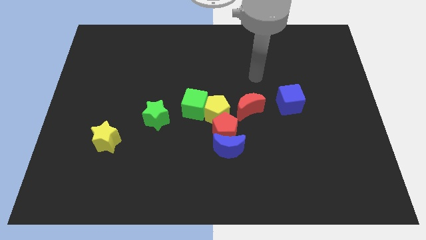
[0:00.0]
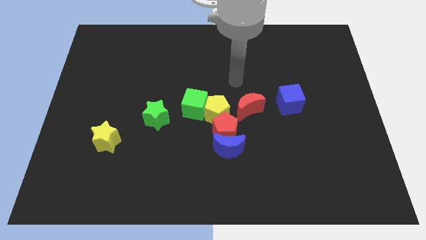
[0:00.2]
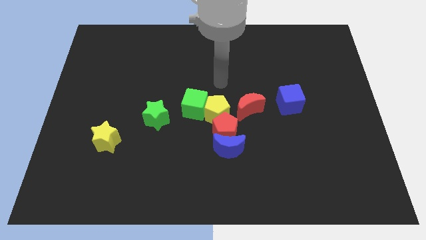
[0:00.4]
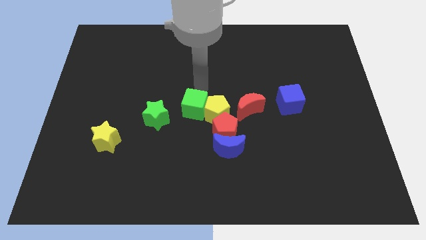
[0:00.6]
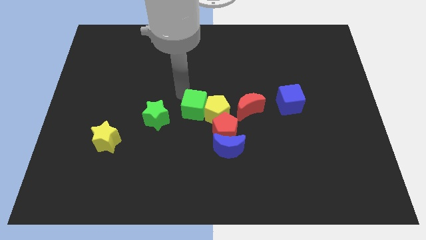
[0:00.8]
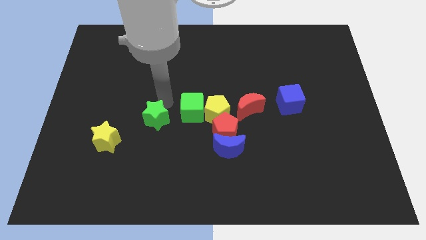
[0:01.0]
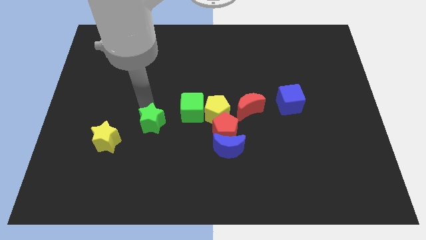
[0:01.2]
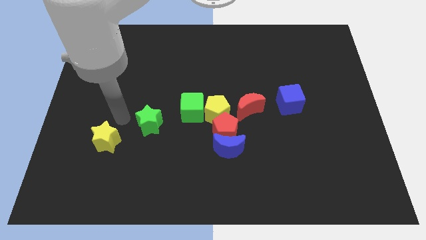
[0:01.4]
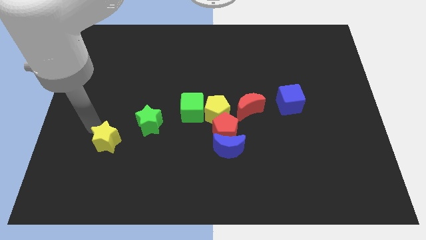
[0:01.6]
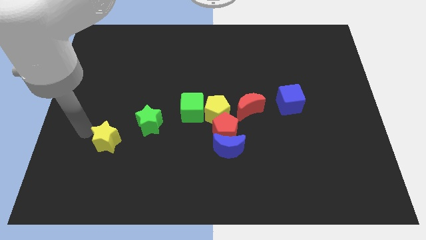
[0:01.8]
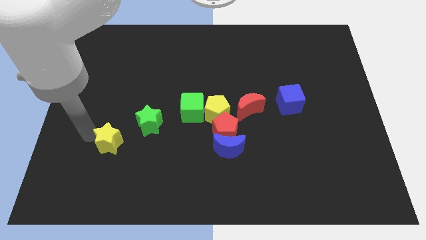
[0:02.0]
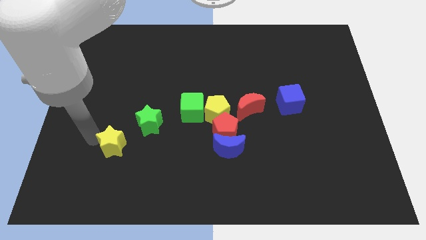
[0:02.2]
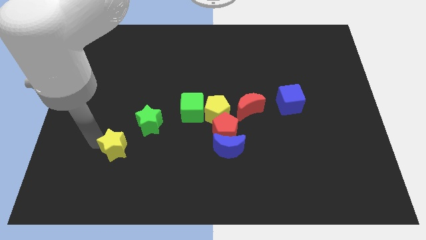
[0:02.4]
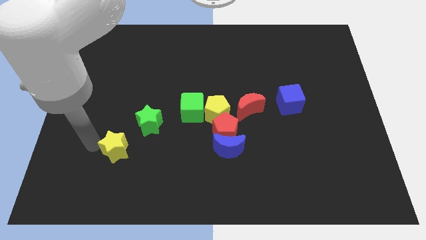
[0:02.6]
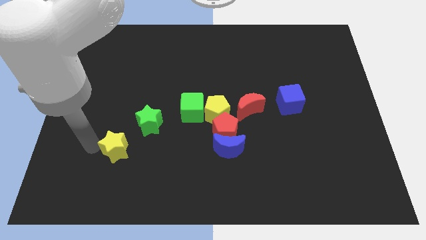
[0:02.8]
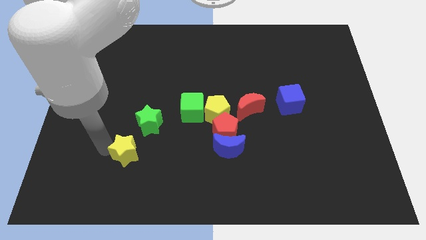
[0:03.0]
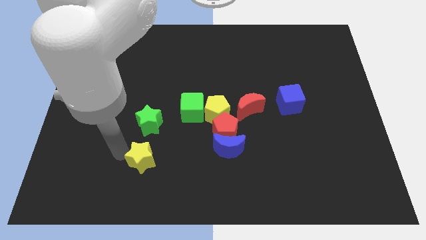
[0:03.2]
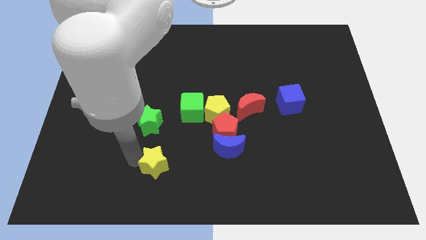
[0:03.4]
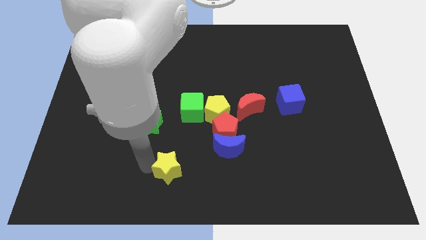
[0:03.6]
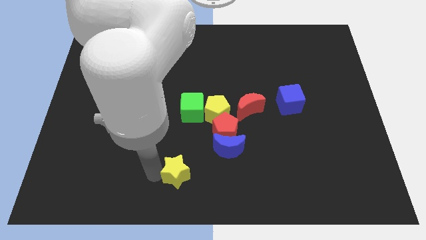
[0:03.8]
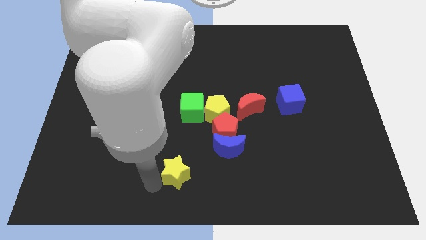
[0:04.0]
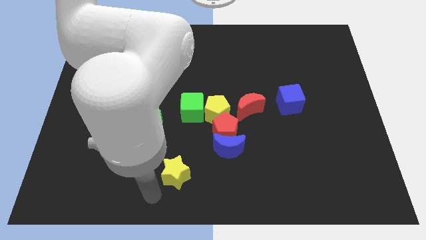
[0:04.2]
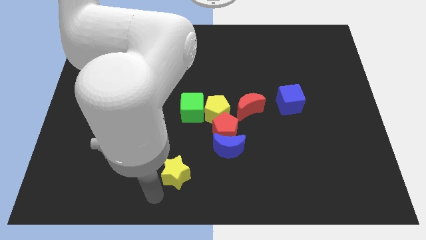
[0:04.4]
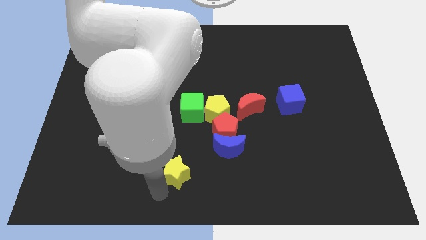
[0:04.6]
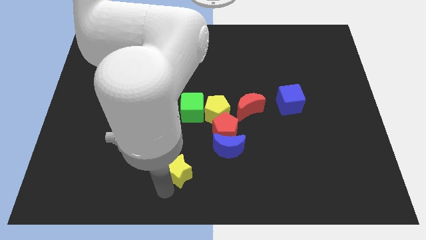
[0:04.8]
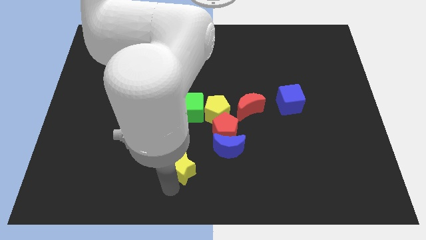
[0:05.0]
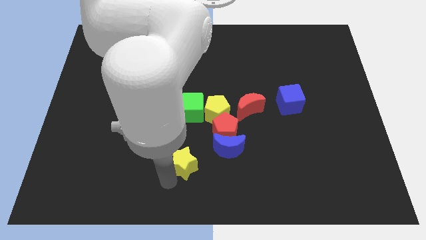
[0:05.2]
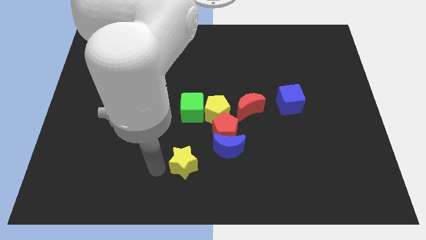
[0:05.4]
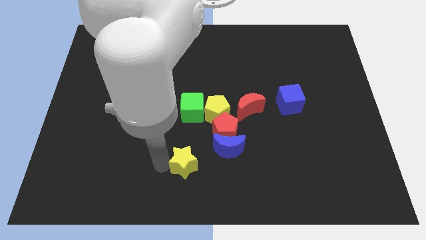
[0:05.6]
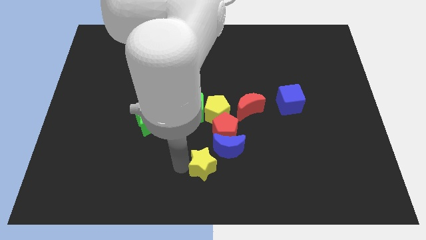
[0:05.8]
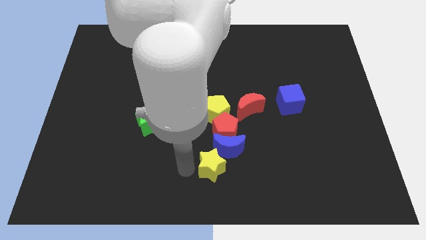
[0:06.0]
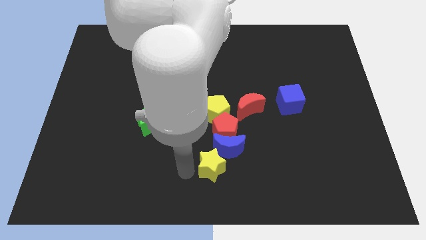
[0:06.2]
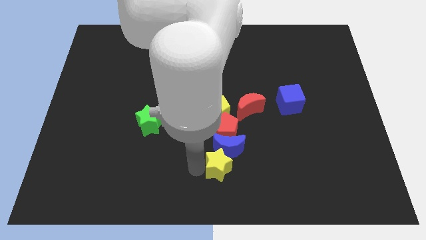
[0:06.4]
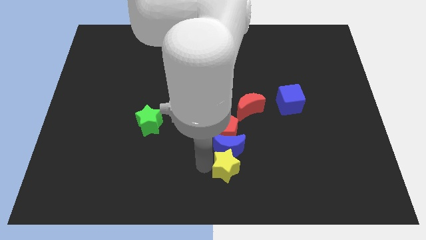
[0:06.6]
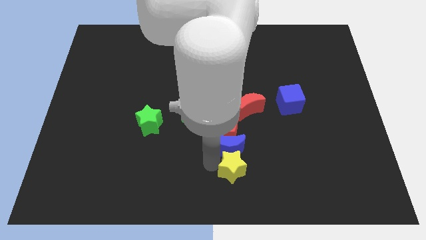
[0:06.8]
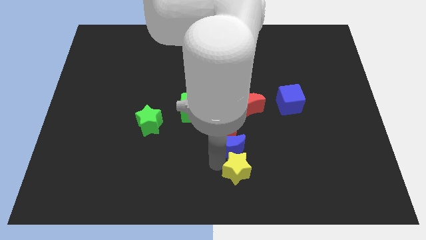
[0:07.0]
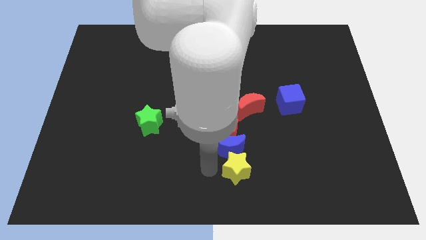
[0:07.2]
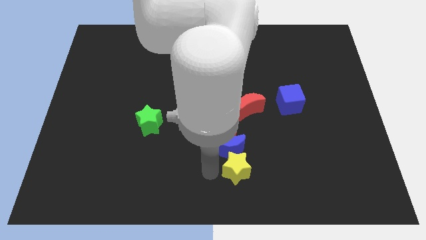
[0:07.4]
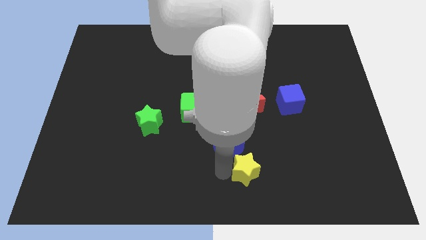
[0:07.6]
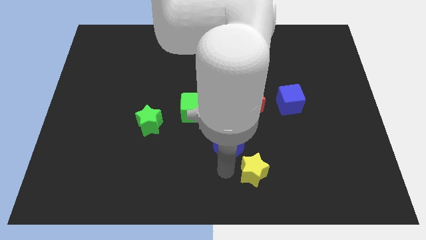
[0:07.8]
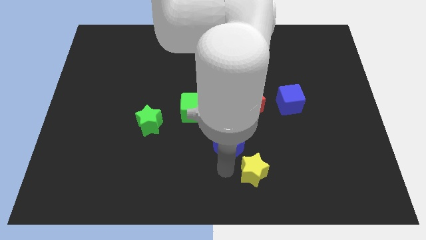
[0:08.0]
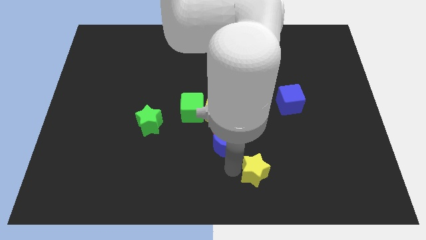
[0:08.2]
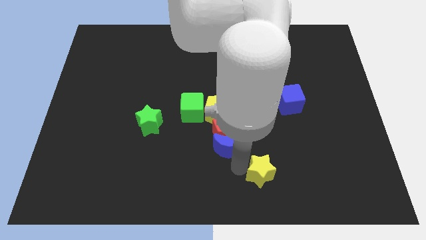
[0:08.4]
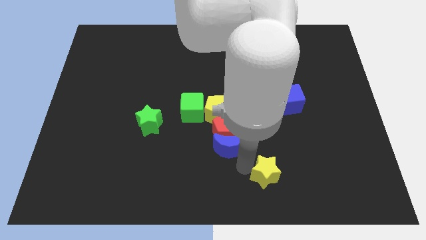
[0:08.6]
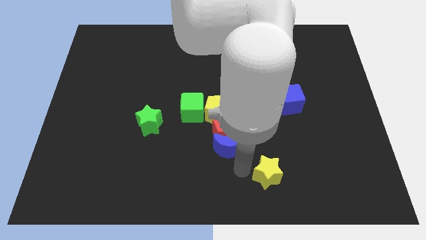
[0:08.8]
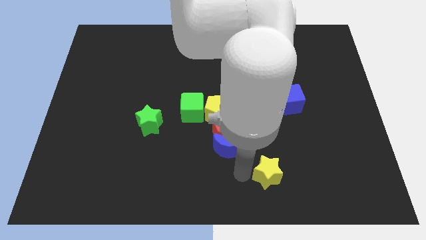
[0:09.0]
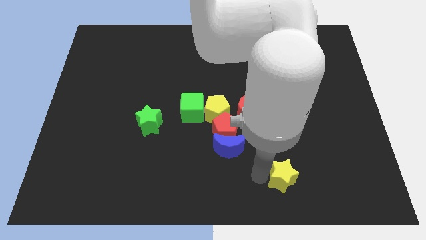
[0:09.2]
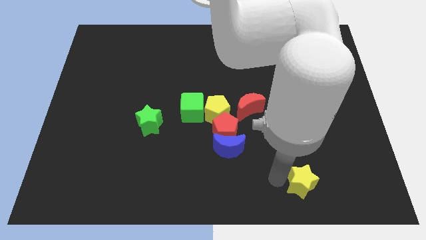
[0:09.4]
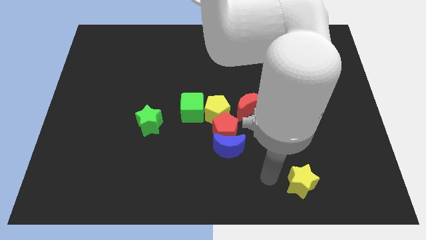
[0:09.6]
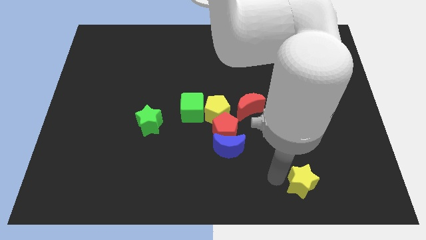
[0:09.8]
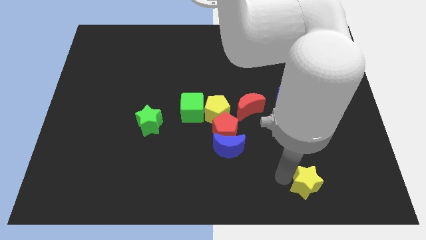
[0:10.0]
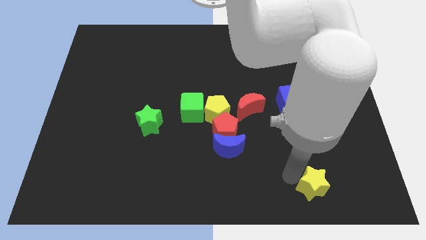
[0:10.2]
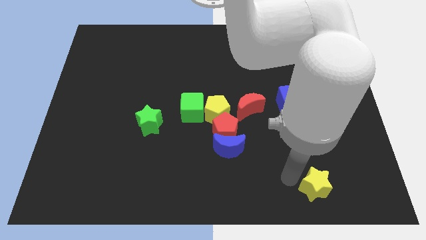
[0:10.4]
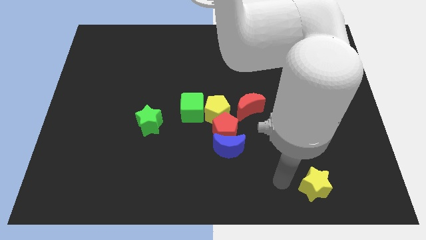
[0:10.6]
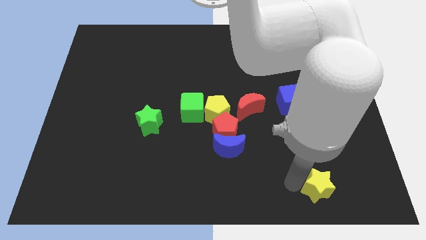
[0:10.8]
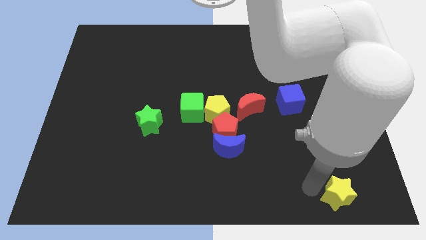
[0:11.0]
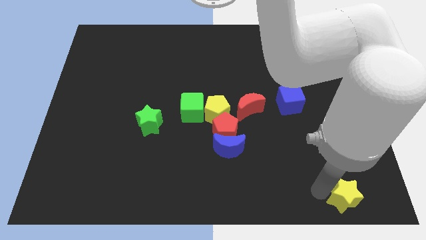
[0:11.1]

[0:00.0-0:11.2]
slide the yellow star to the bottom right corner
